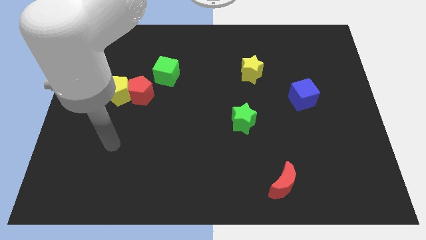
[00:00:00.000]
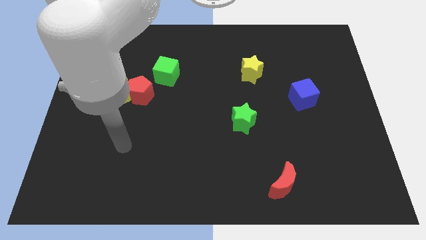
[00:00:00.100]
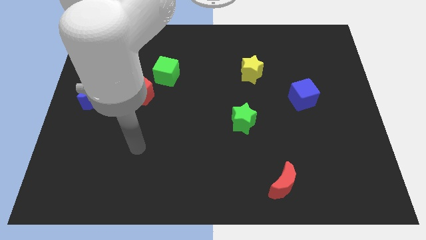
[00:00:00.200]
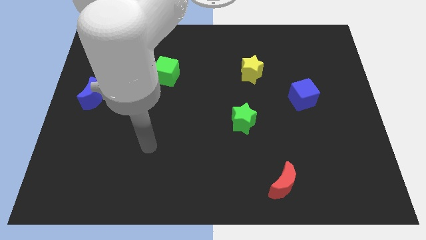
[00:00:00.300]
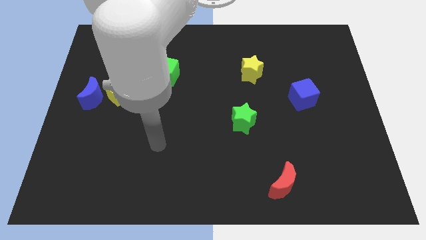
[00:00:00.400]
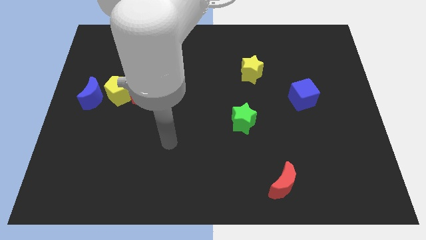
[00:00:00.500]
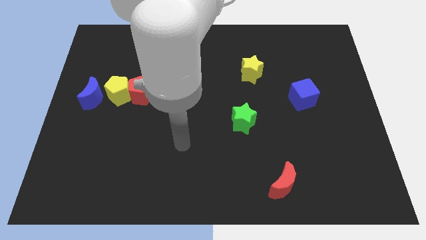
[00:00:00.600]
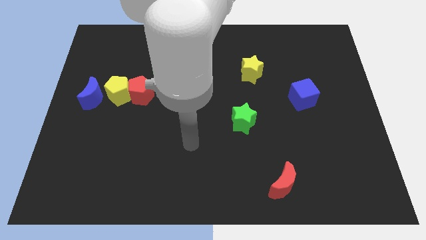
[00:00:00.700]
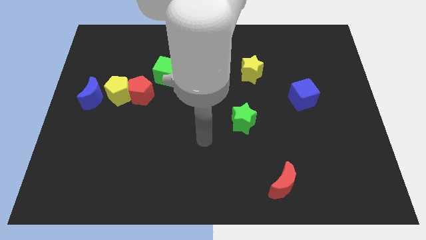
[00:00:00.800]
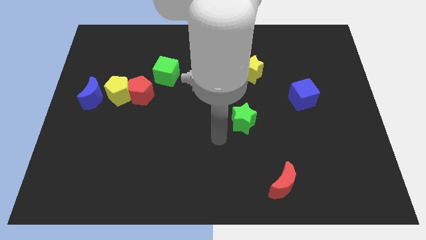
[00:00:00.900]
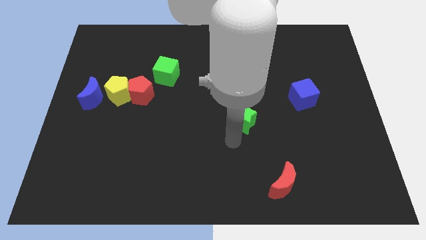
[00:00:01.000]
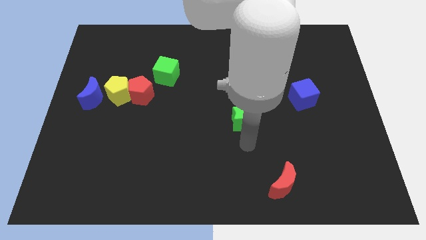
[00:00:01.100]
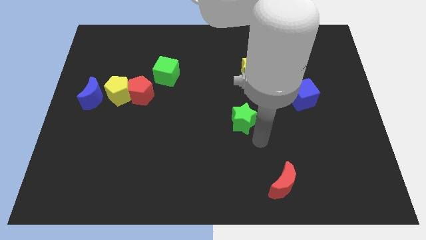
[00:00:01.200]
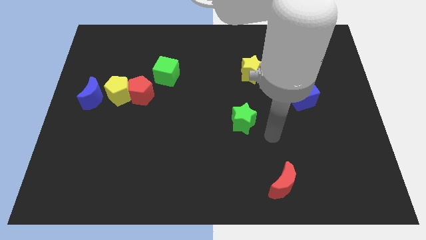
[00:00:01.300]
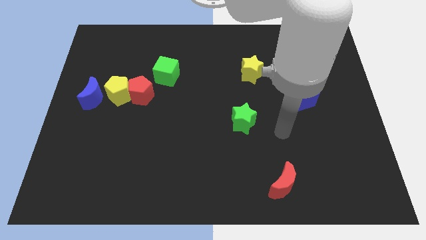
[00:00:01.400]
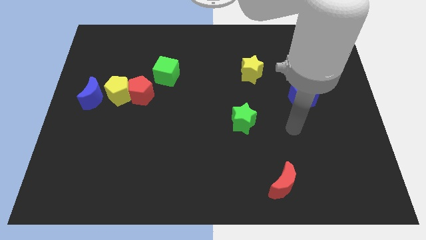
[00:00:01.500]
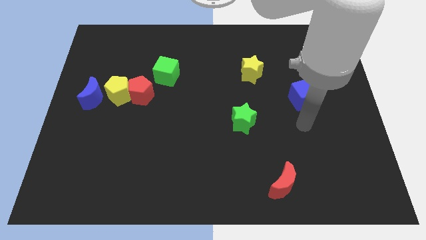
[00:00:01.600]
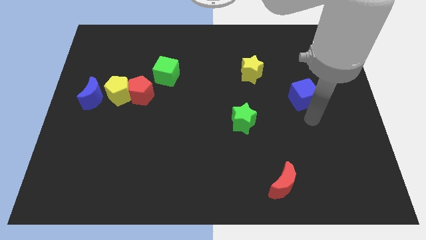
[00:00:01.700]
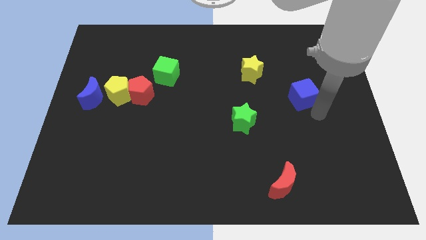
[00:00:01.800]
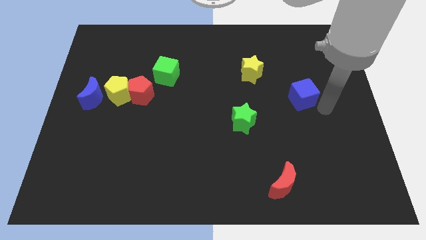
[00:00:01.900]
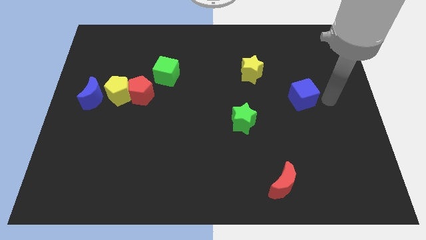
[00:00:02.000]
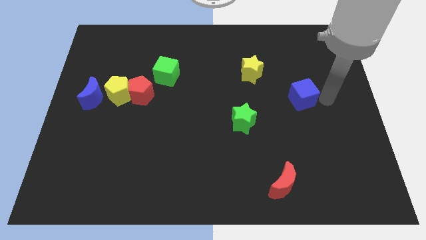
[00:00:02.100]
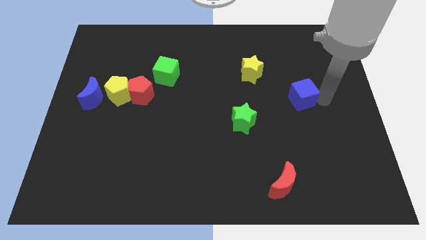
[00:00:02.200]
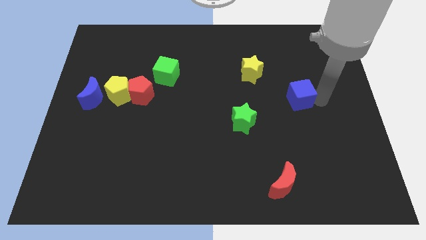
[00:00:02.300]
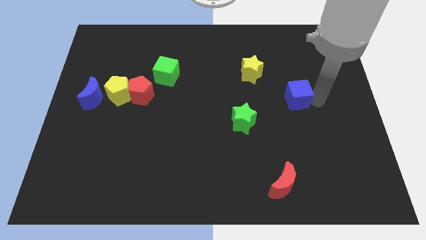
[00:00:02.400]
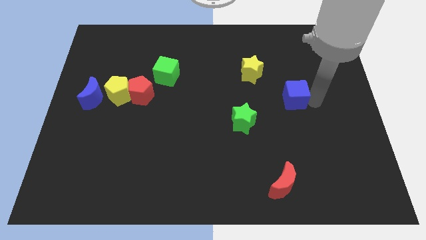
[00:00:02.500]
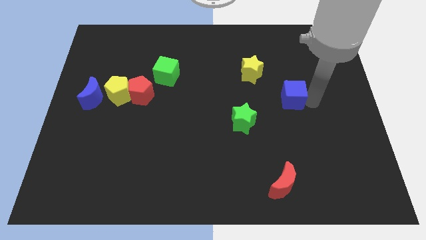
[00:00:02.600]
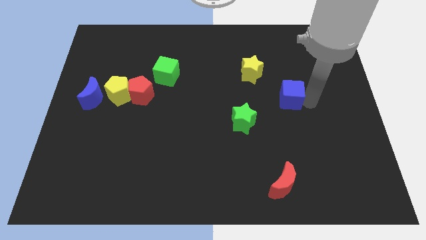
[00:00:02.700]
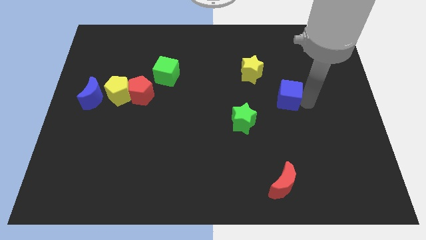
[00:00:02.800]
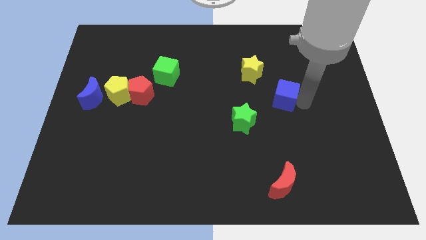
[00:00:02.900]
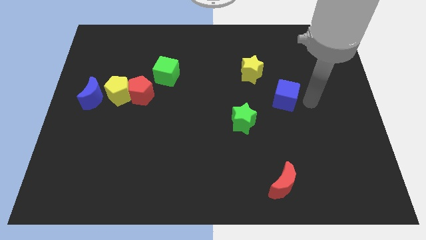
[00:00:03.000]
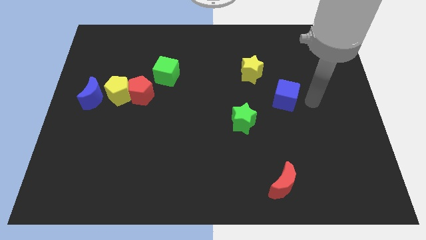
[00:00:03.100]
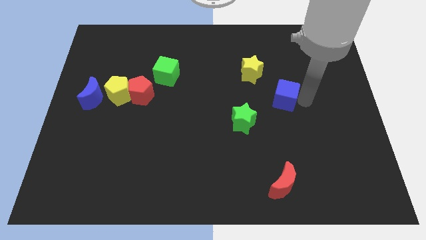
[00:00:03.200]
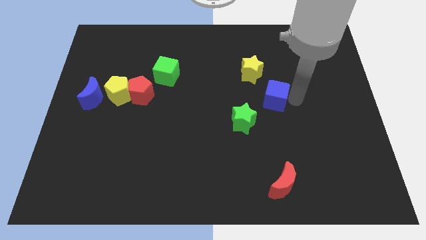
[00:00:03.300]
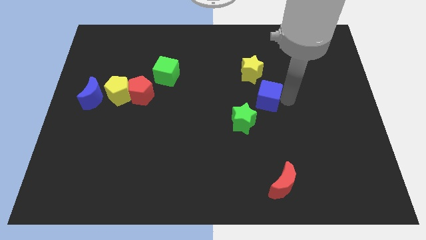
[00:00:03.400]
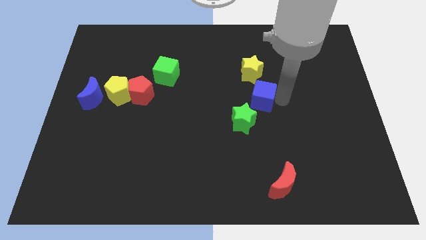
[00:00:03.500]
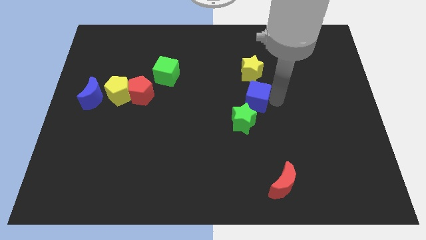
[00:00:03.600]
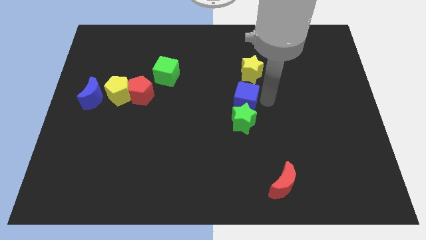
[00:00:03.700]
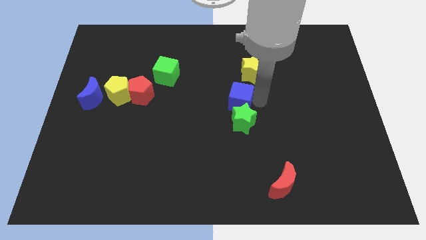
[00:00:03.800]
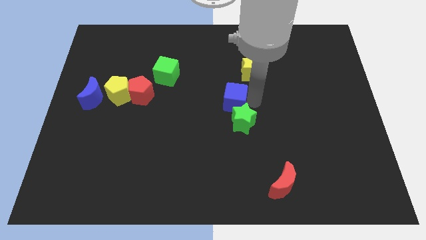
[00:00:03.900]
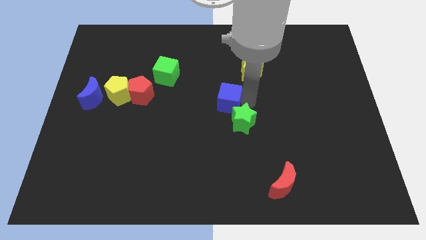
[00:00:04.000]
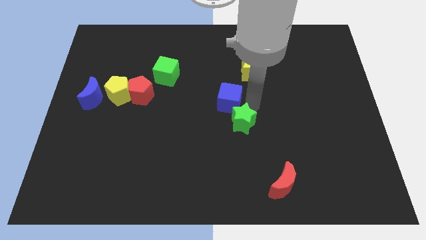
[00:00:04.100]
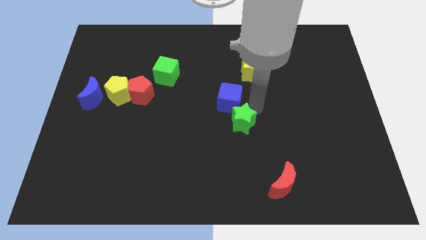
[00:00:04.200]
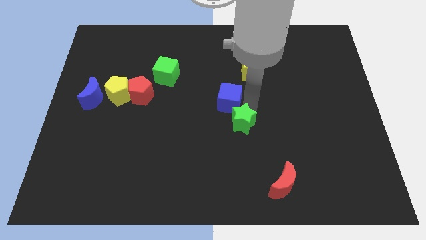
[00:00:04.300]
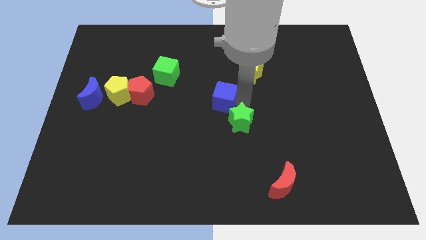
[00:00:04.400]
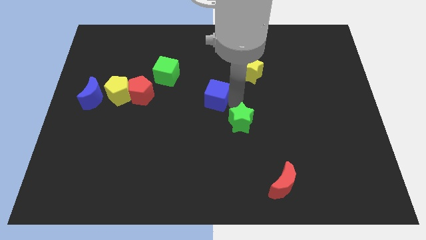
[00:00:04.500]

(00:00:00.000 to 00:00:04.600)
slide the blue cube left

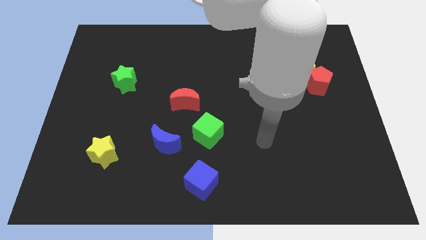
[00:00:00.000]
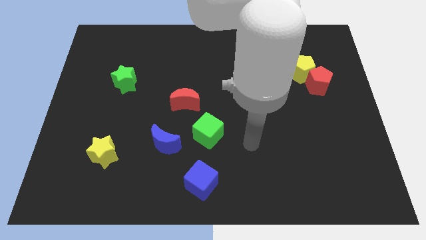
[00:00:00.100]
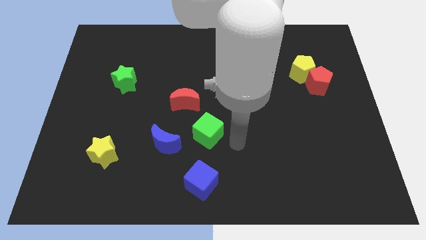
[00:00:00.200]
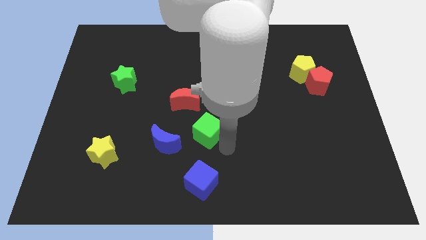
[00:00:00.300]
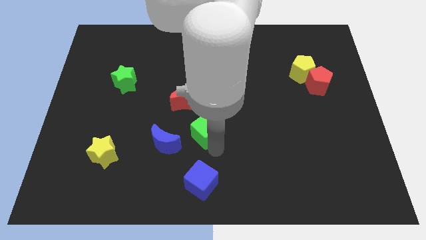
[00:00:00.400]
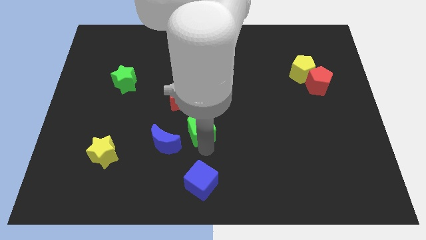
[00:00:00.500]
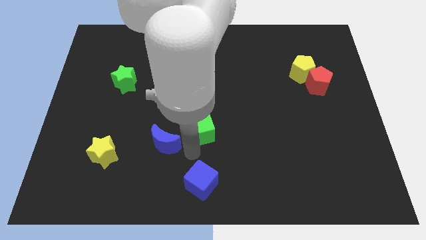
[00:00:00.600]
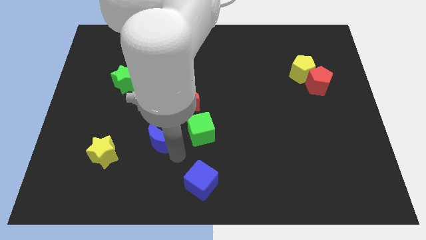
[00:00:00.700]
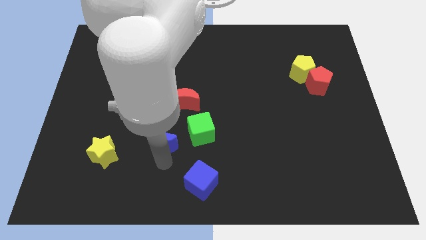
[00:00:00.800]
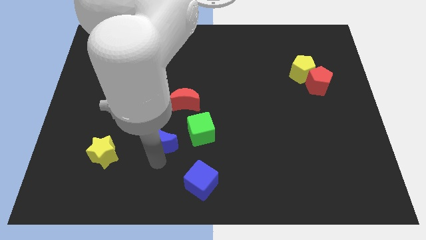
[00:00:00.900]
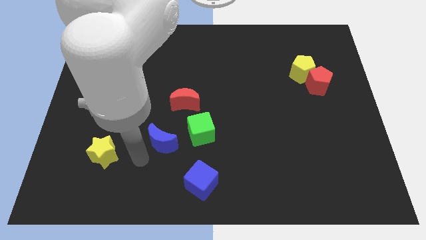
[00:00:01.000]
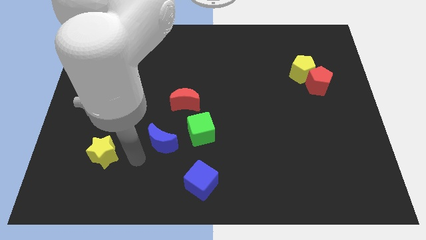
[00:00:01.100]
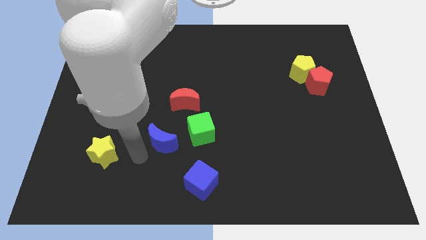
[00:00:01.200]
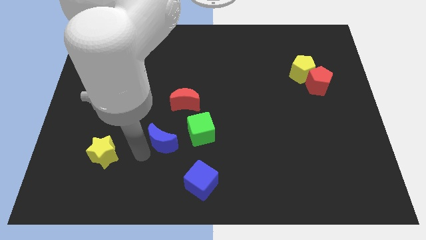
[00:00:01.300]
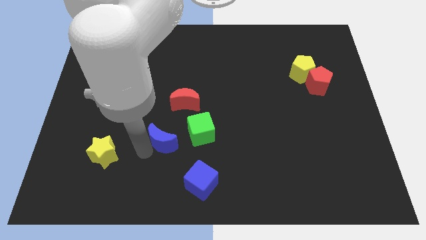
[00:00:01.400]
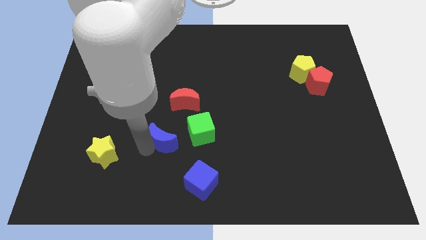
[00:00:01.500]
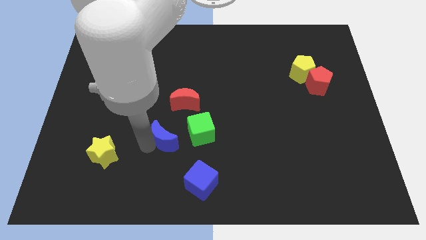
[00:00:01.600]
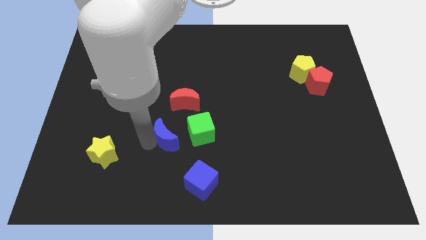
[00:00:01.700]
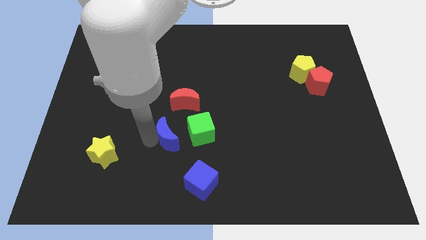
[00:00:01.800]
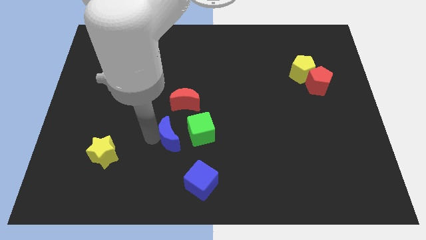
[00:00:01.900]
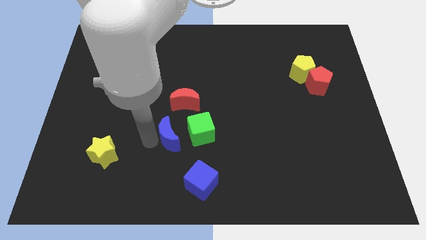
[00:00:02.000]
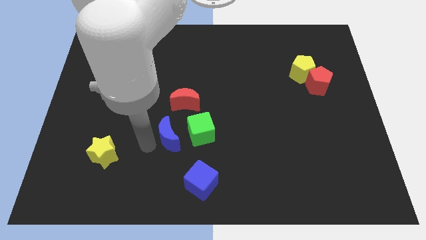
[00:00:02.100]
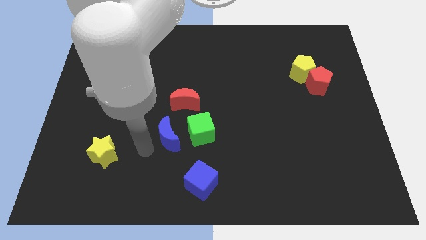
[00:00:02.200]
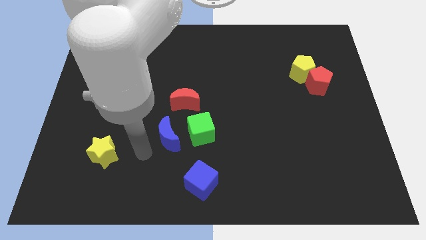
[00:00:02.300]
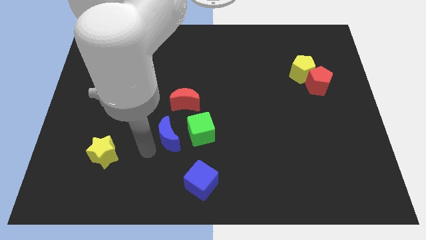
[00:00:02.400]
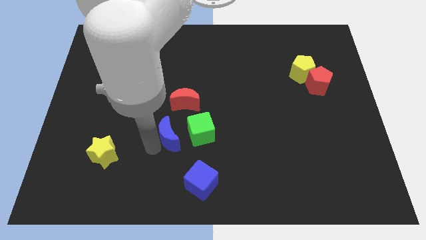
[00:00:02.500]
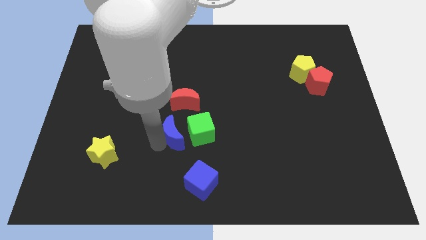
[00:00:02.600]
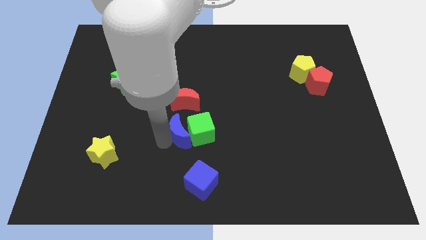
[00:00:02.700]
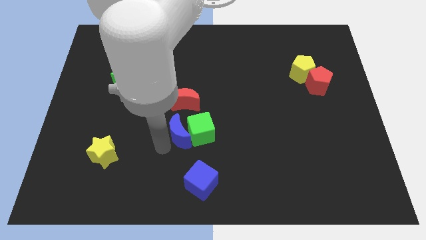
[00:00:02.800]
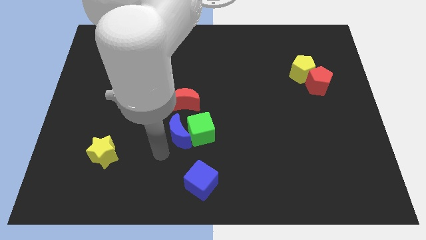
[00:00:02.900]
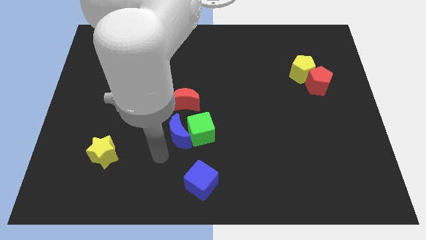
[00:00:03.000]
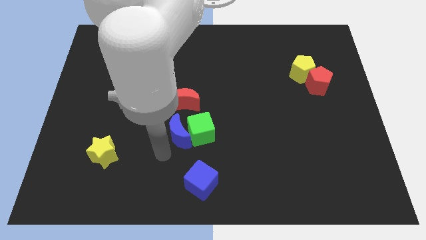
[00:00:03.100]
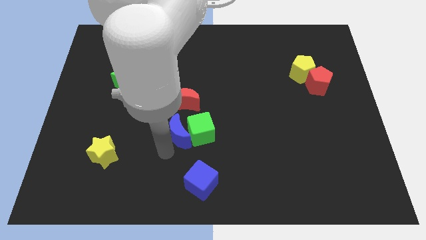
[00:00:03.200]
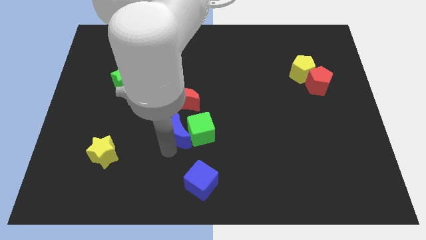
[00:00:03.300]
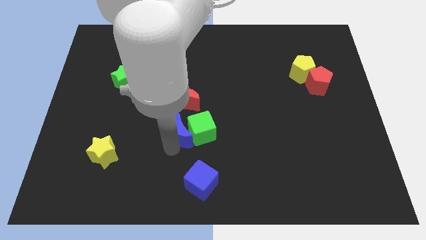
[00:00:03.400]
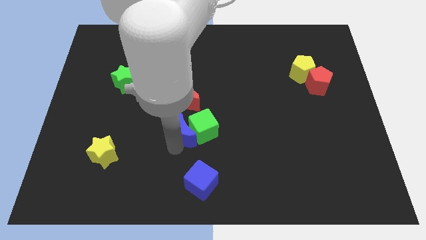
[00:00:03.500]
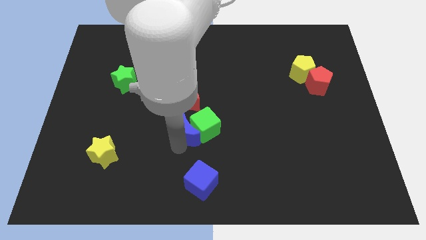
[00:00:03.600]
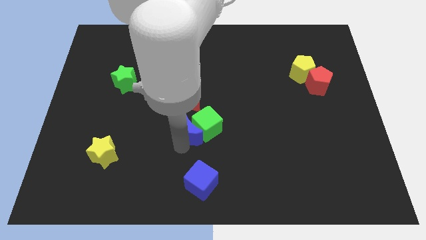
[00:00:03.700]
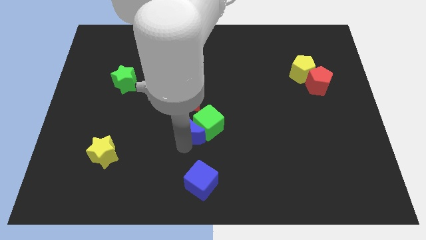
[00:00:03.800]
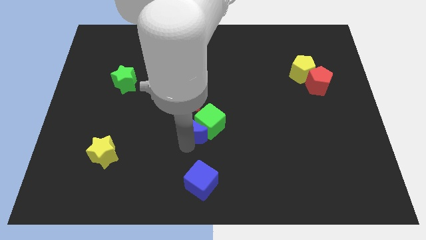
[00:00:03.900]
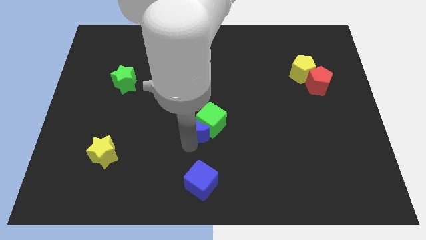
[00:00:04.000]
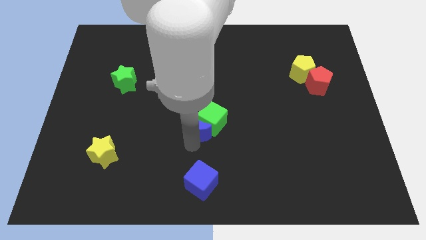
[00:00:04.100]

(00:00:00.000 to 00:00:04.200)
slightly slide the blue moon upwards and right
